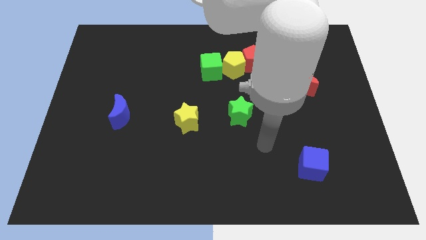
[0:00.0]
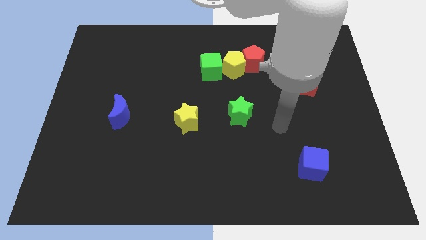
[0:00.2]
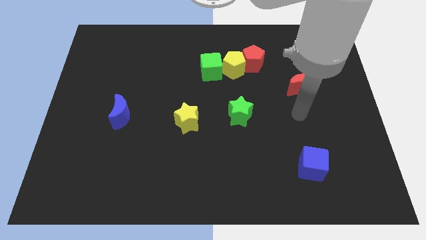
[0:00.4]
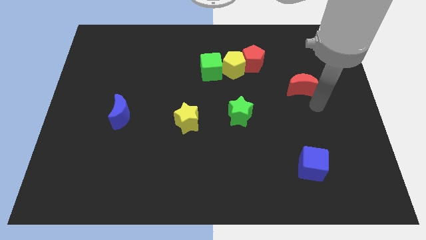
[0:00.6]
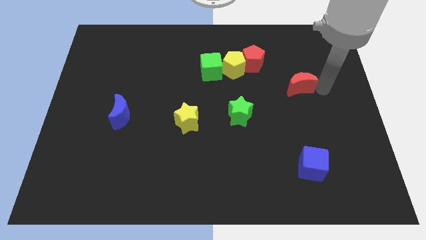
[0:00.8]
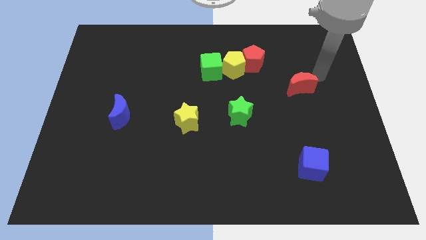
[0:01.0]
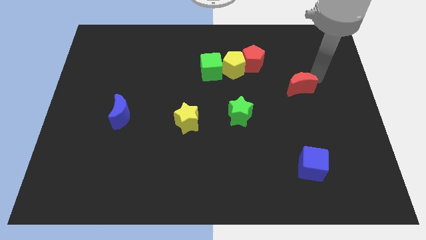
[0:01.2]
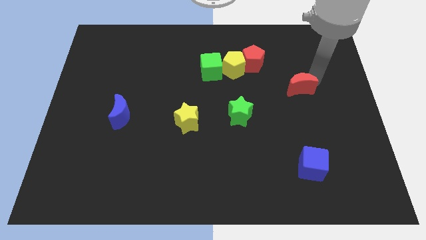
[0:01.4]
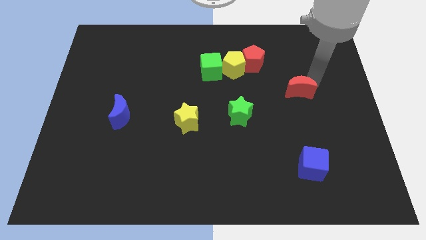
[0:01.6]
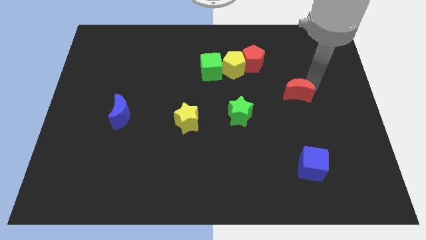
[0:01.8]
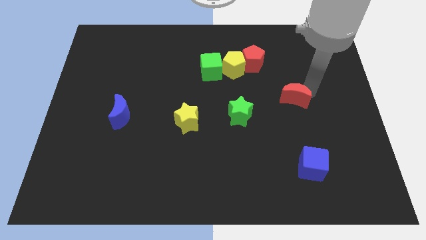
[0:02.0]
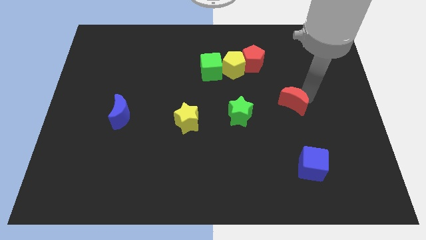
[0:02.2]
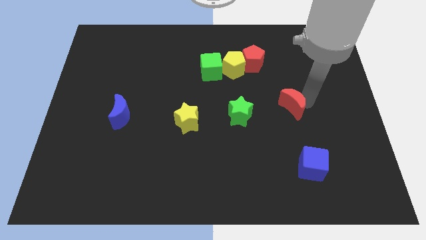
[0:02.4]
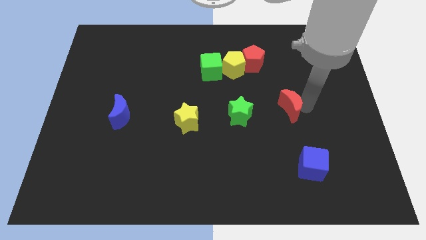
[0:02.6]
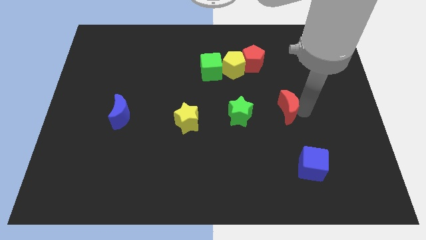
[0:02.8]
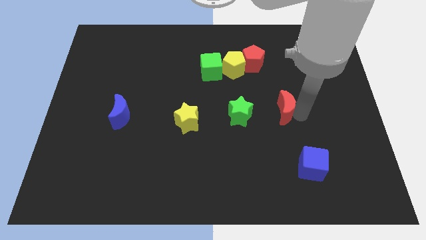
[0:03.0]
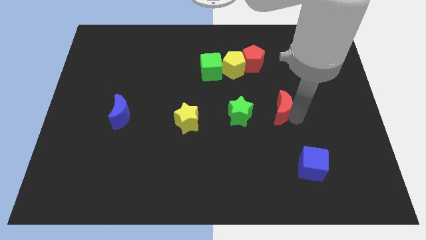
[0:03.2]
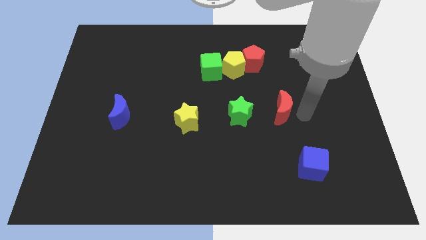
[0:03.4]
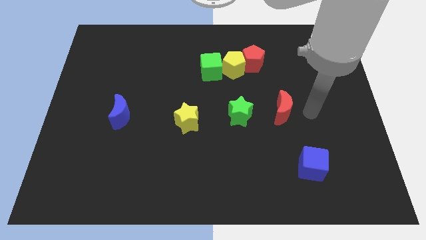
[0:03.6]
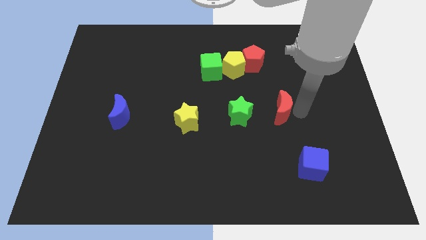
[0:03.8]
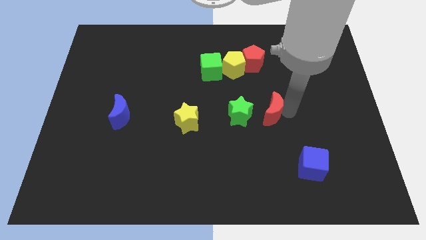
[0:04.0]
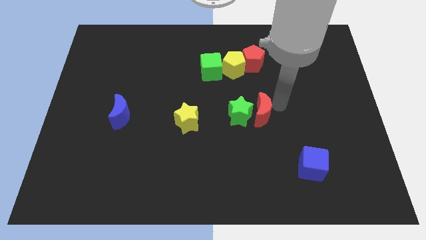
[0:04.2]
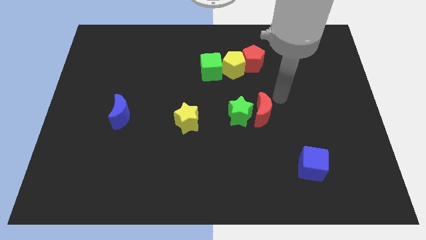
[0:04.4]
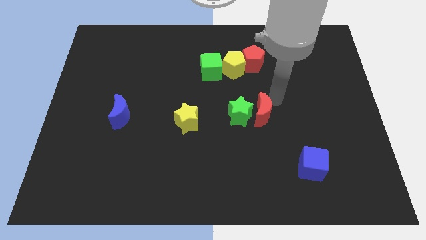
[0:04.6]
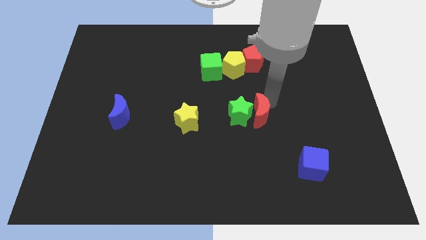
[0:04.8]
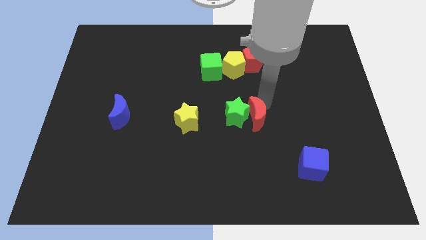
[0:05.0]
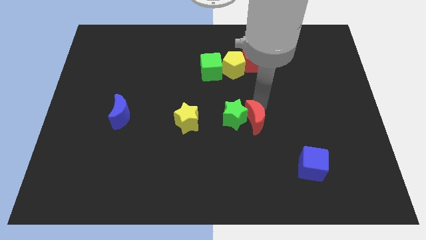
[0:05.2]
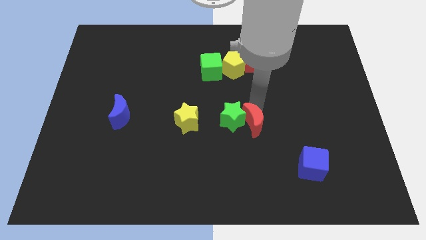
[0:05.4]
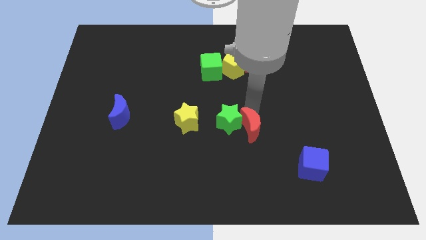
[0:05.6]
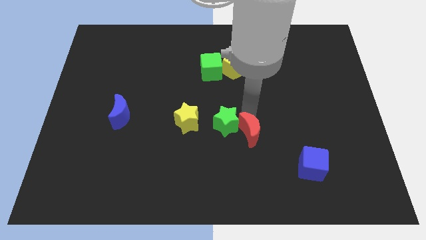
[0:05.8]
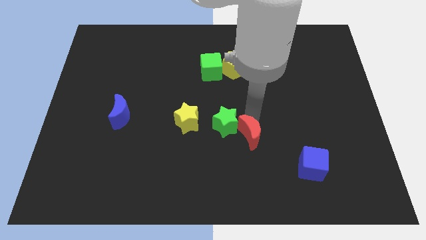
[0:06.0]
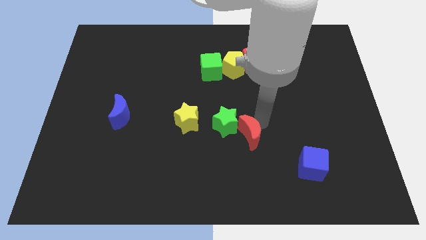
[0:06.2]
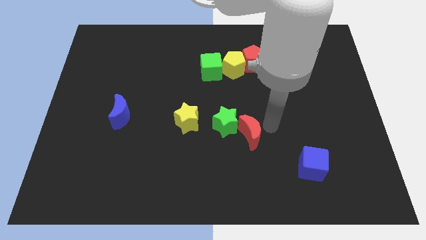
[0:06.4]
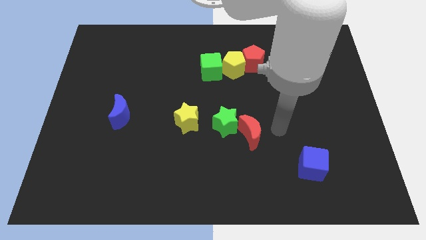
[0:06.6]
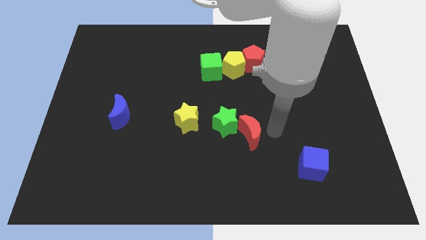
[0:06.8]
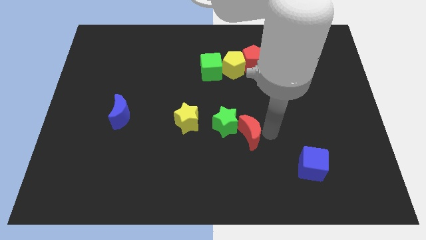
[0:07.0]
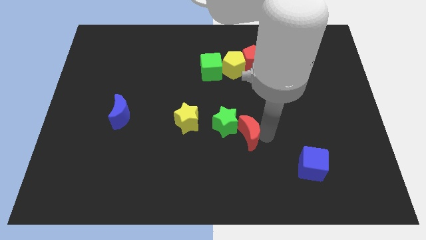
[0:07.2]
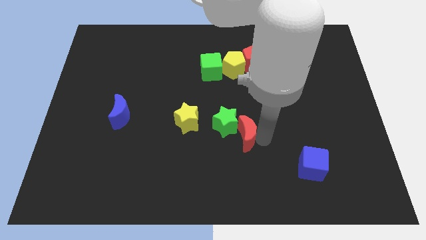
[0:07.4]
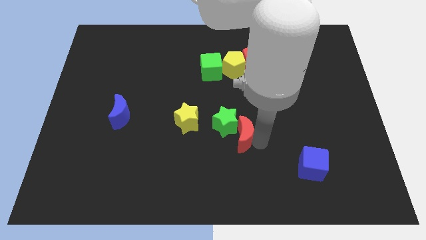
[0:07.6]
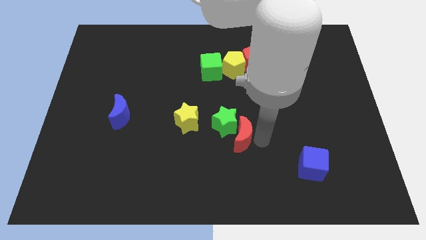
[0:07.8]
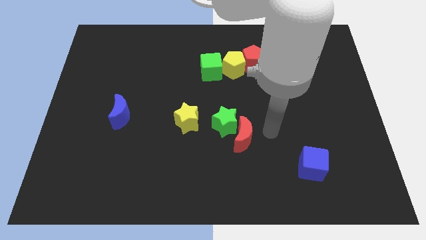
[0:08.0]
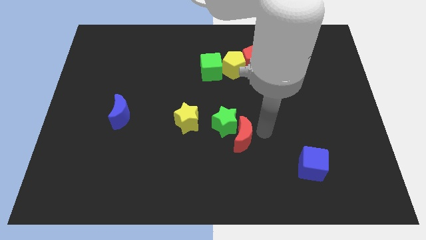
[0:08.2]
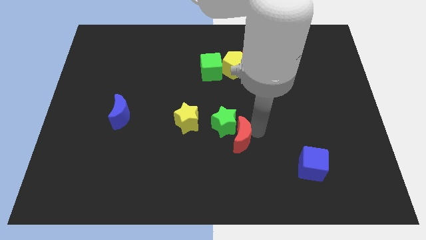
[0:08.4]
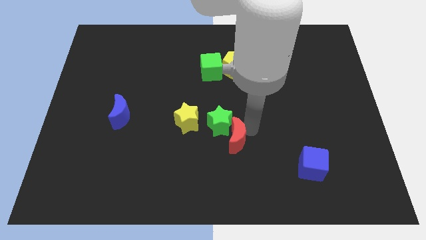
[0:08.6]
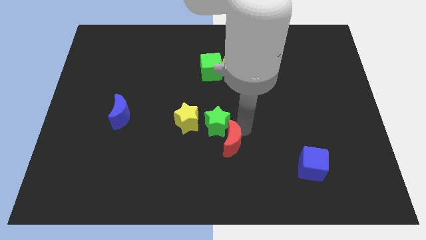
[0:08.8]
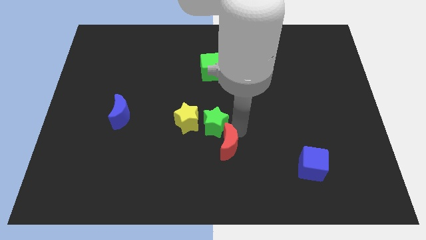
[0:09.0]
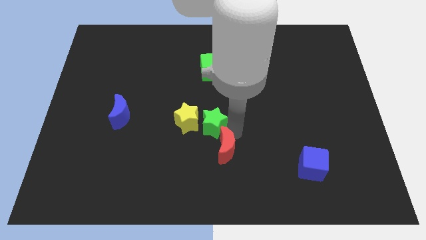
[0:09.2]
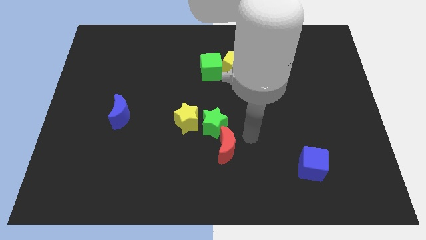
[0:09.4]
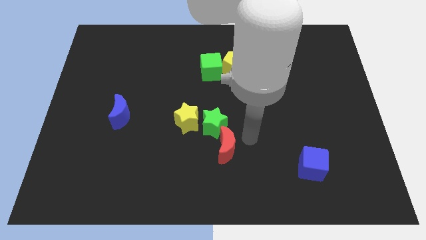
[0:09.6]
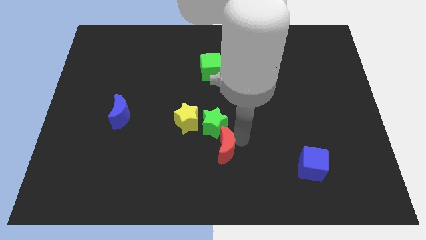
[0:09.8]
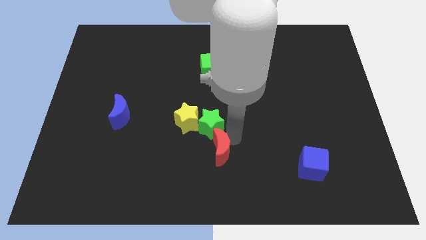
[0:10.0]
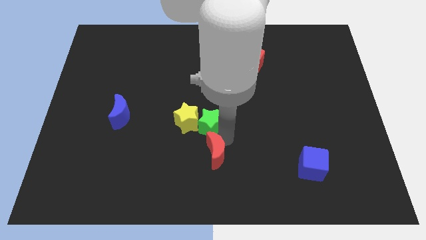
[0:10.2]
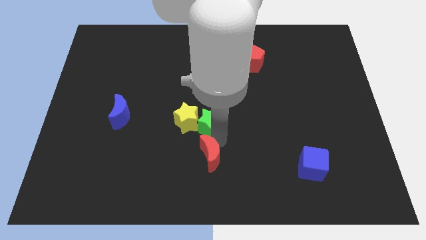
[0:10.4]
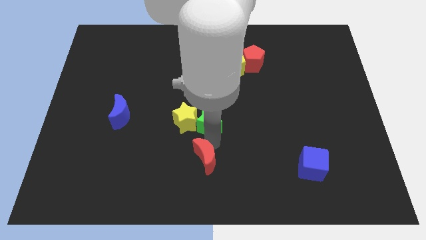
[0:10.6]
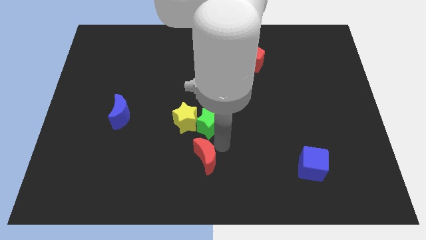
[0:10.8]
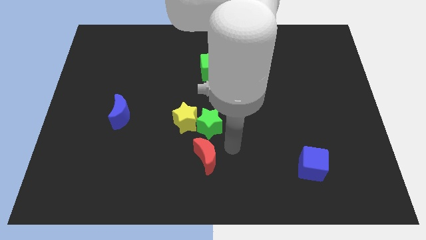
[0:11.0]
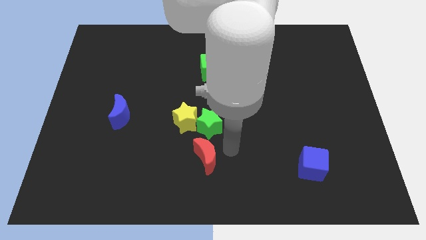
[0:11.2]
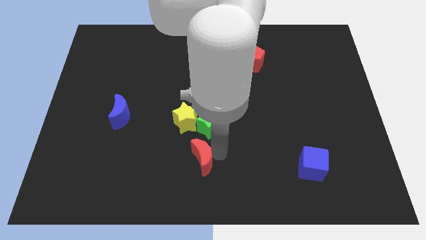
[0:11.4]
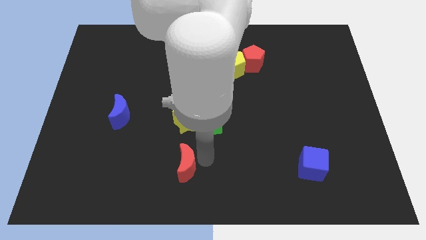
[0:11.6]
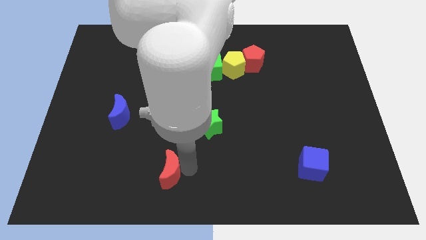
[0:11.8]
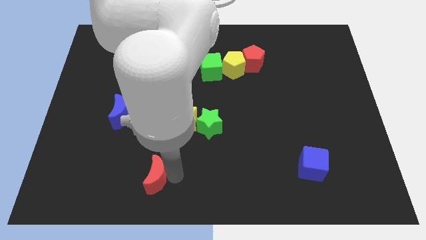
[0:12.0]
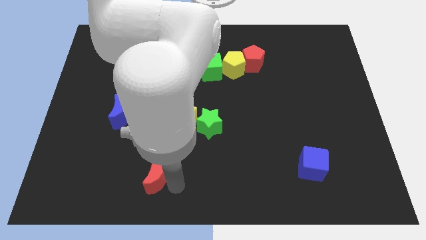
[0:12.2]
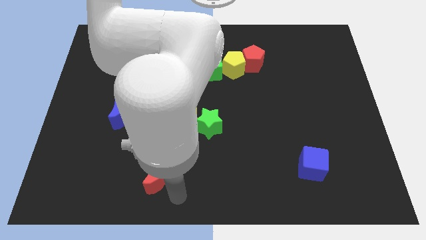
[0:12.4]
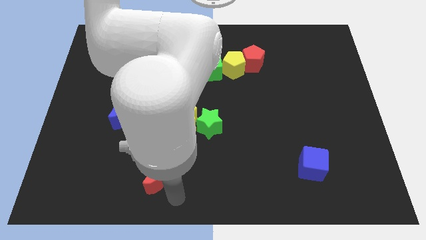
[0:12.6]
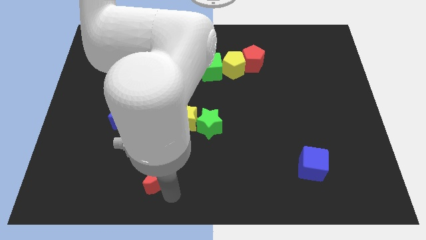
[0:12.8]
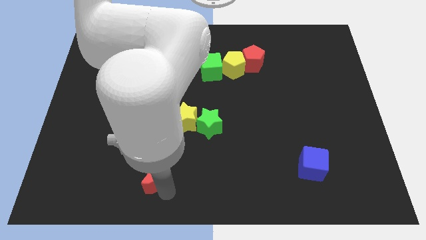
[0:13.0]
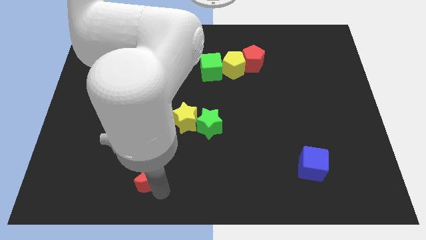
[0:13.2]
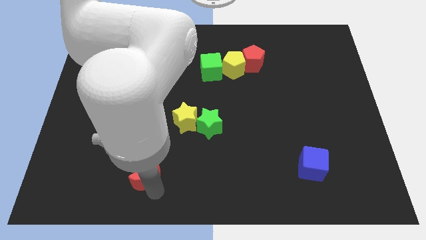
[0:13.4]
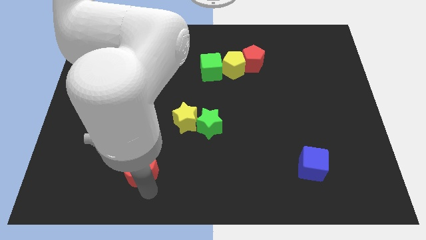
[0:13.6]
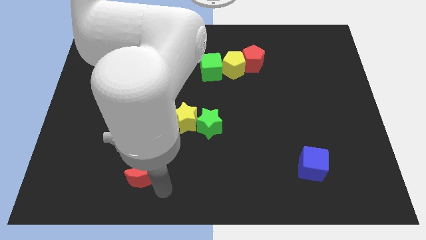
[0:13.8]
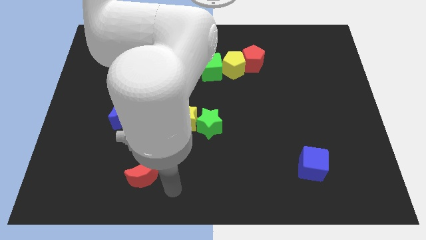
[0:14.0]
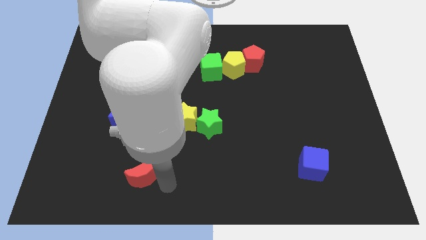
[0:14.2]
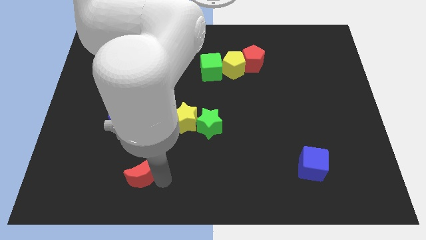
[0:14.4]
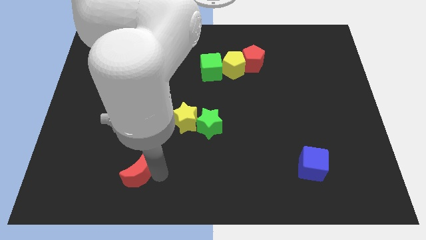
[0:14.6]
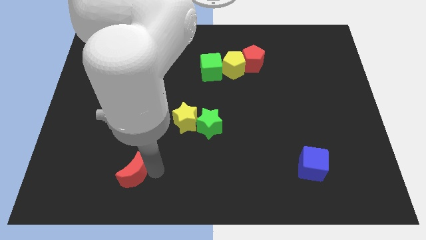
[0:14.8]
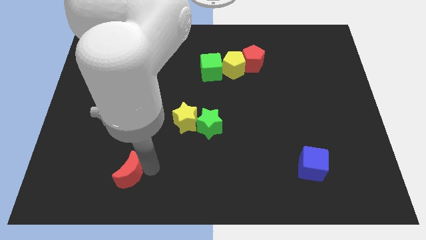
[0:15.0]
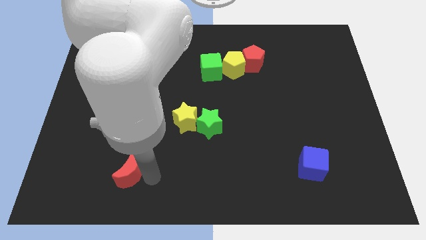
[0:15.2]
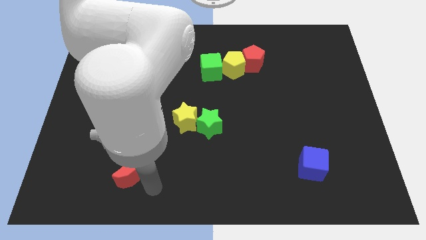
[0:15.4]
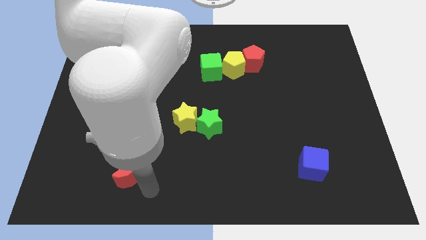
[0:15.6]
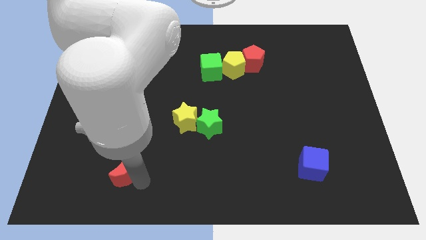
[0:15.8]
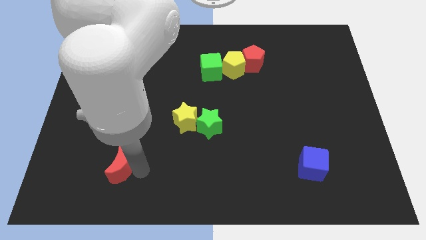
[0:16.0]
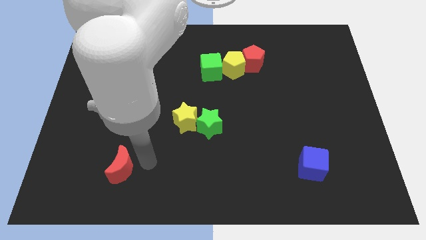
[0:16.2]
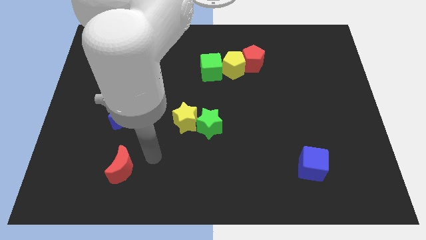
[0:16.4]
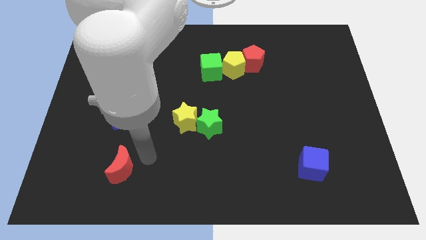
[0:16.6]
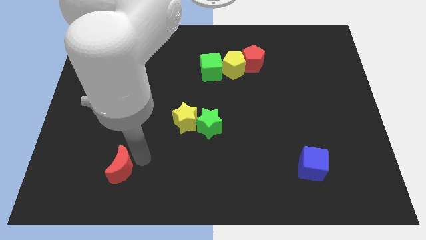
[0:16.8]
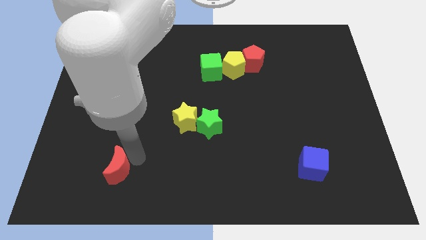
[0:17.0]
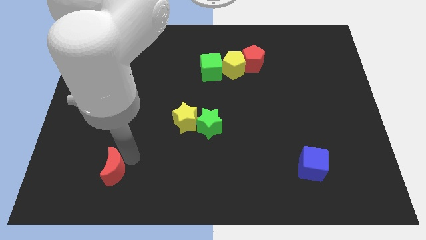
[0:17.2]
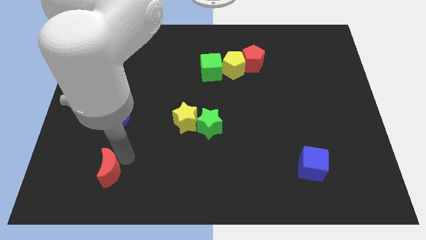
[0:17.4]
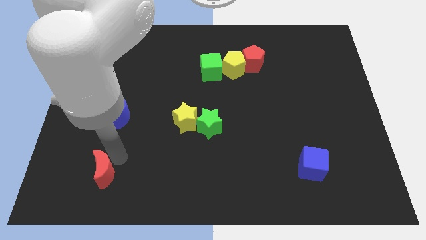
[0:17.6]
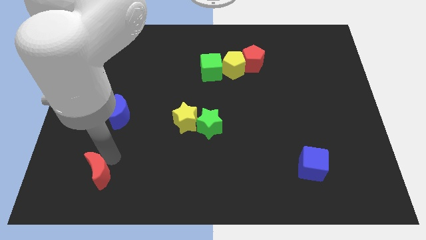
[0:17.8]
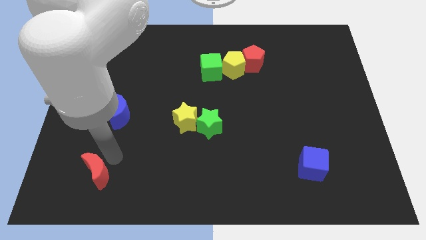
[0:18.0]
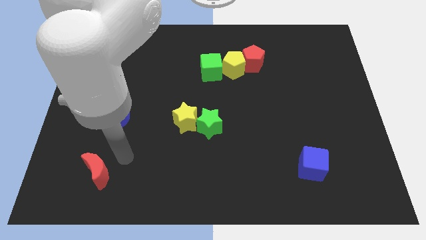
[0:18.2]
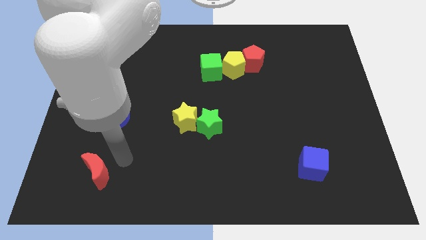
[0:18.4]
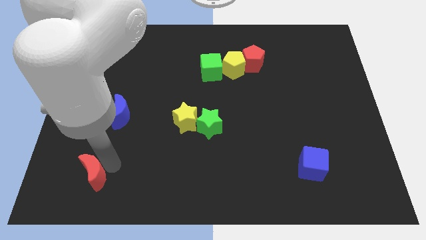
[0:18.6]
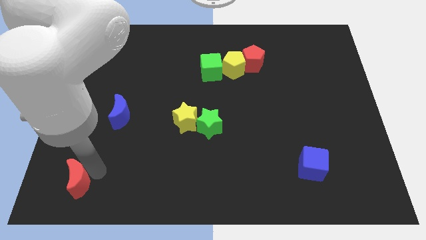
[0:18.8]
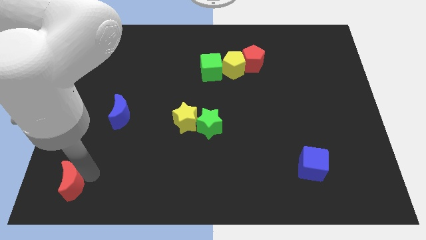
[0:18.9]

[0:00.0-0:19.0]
push the red moon to the bottom left
